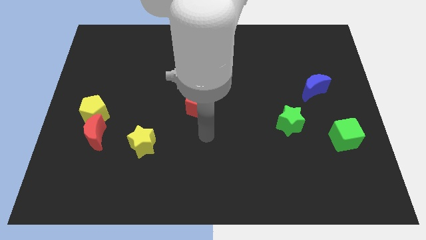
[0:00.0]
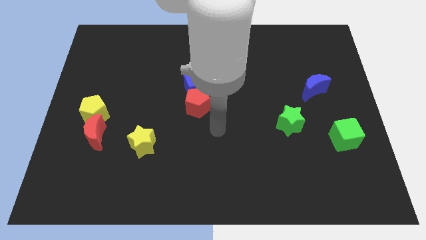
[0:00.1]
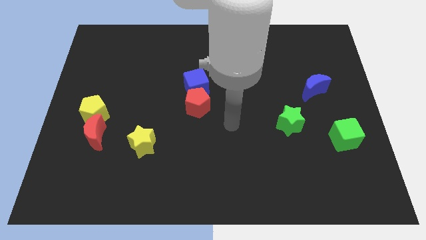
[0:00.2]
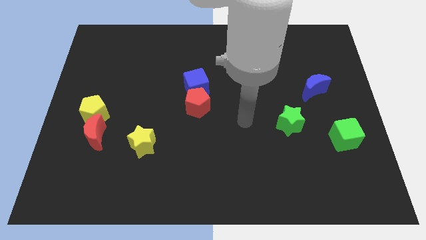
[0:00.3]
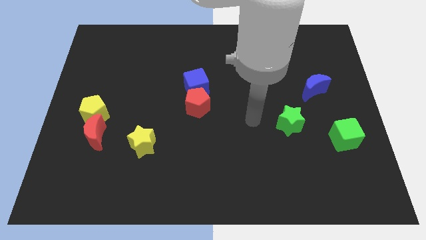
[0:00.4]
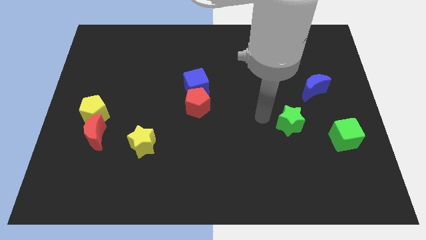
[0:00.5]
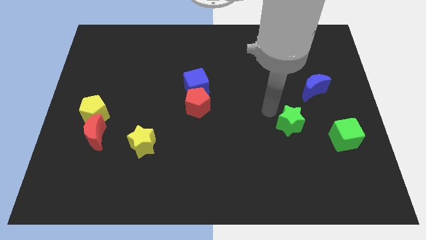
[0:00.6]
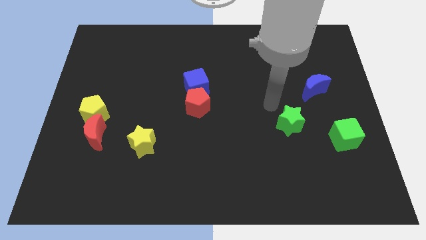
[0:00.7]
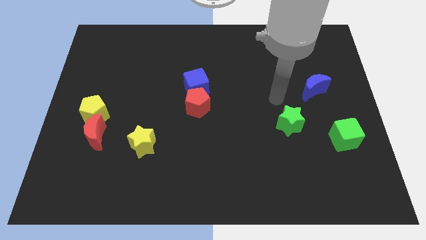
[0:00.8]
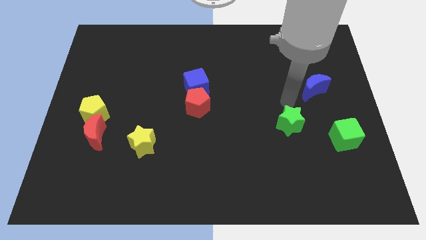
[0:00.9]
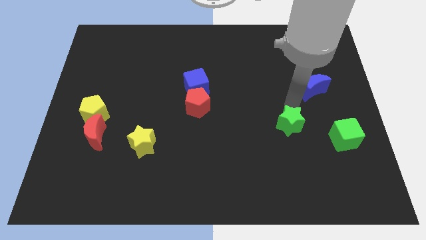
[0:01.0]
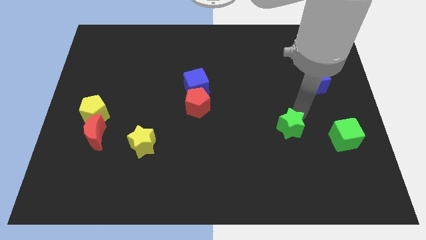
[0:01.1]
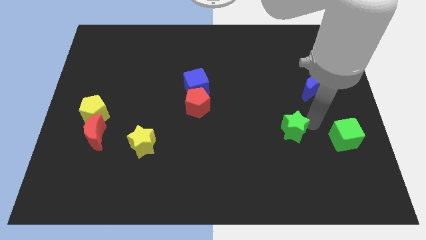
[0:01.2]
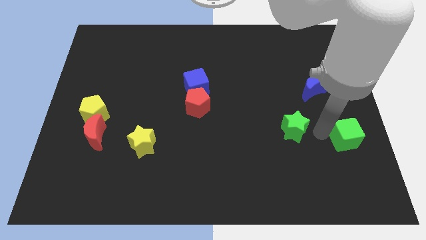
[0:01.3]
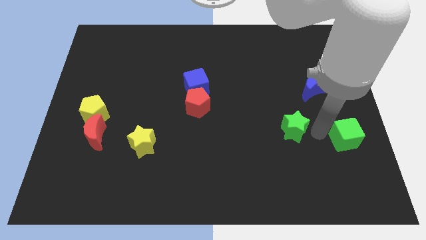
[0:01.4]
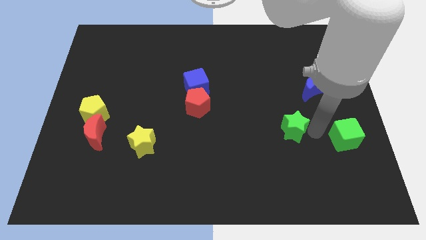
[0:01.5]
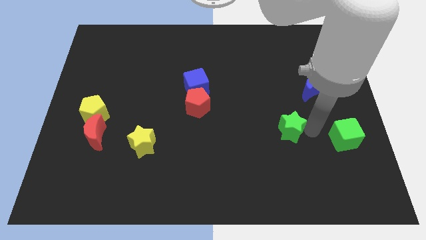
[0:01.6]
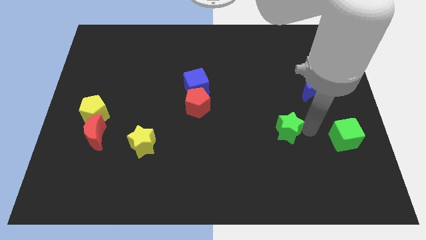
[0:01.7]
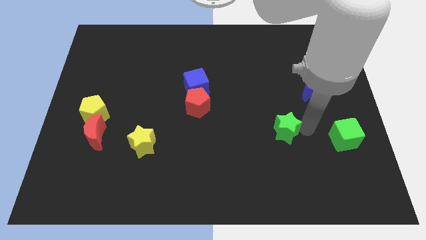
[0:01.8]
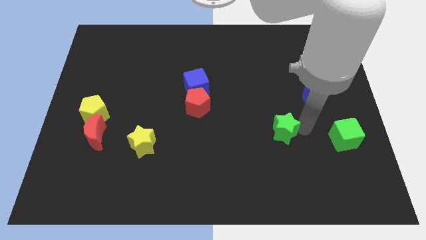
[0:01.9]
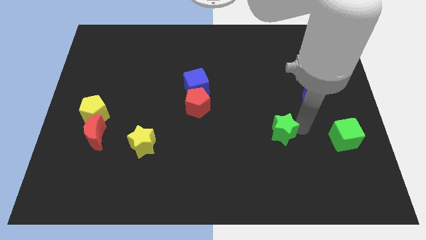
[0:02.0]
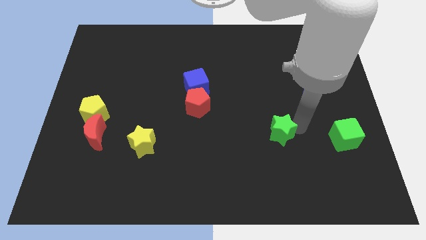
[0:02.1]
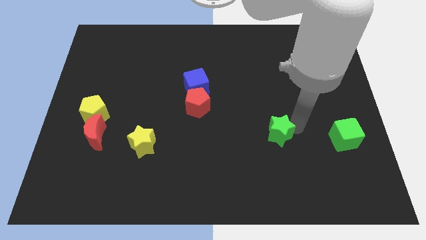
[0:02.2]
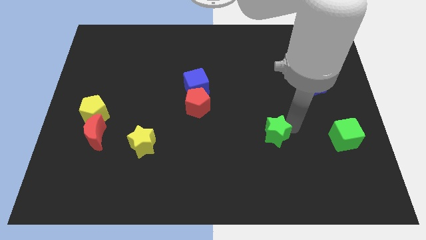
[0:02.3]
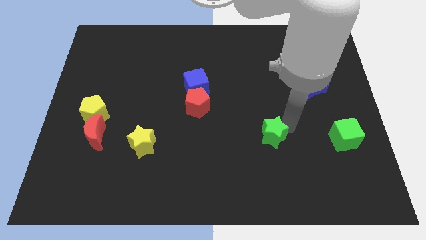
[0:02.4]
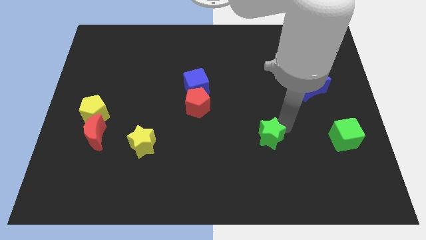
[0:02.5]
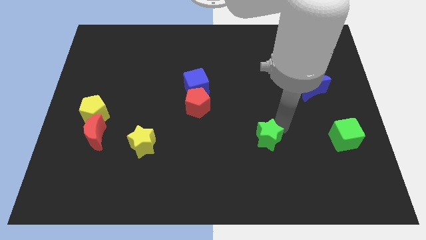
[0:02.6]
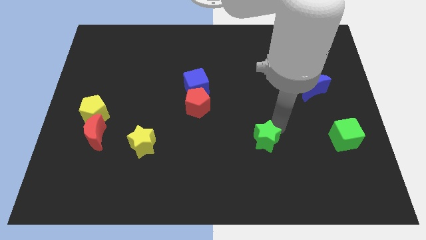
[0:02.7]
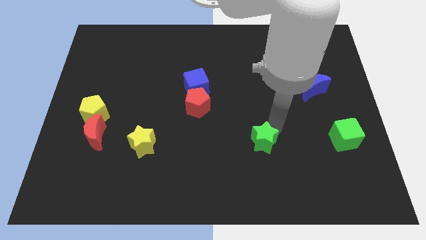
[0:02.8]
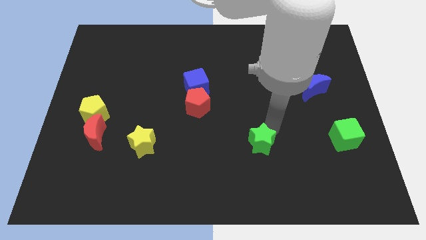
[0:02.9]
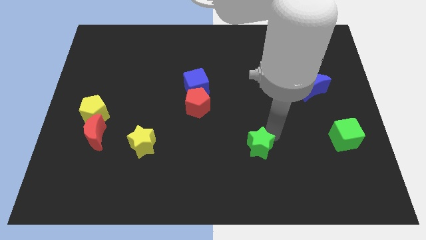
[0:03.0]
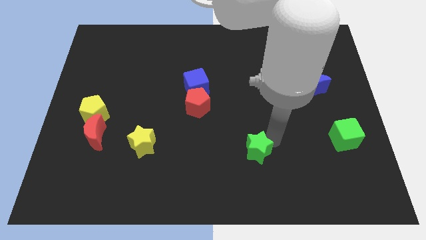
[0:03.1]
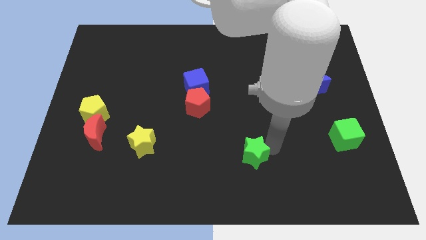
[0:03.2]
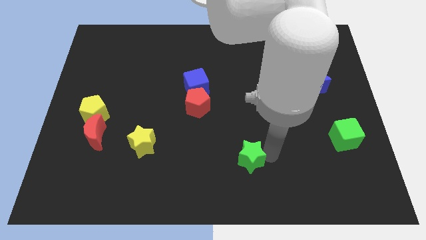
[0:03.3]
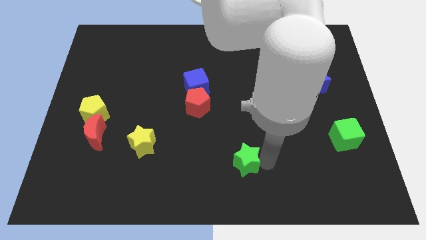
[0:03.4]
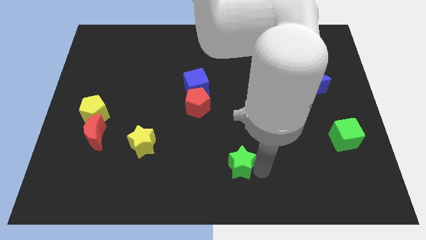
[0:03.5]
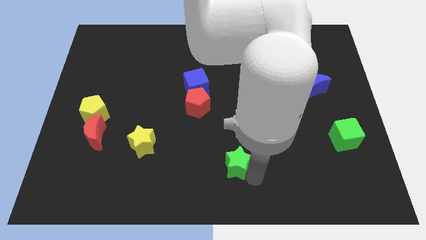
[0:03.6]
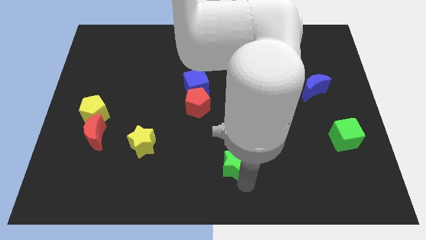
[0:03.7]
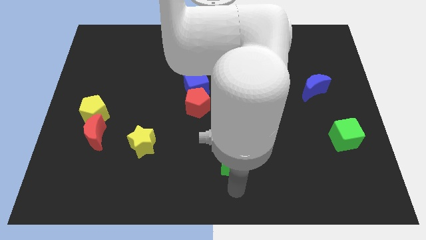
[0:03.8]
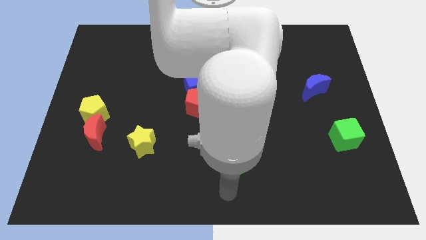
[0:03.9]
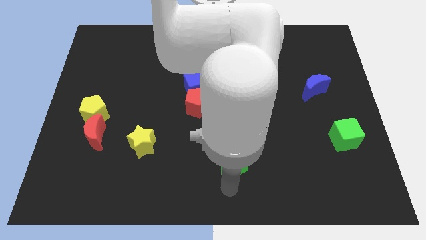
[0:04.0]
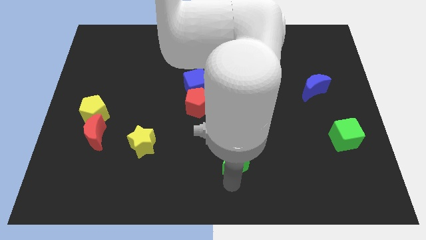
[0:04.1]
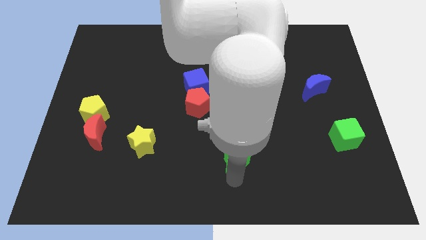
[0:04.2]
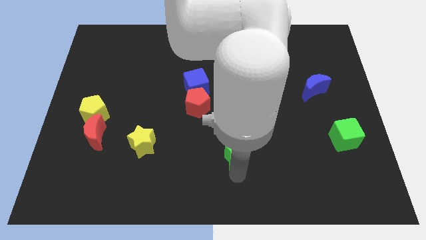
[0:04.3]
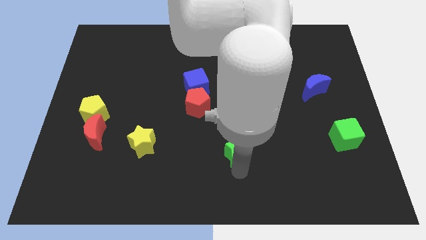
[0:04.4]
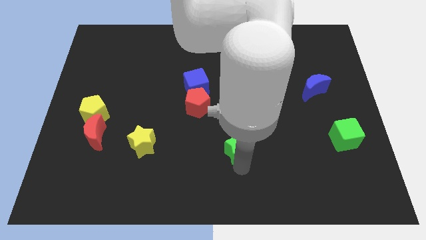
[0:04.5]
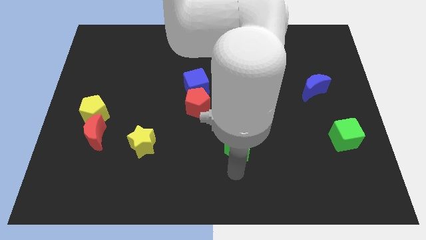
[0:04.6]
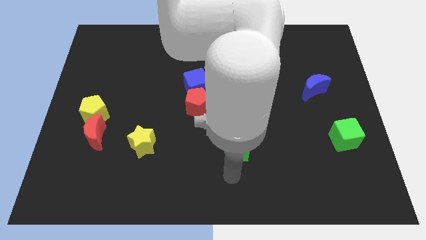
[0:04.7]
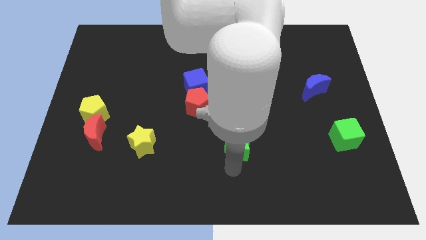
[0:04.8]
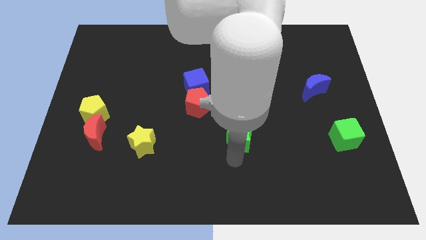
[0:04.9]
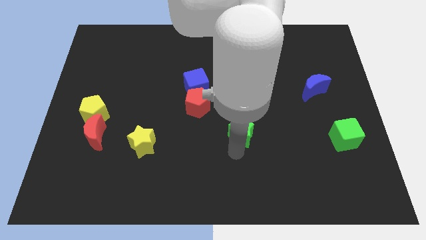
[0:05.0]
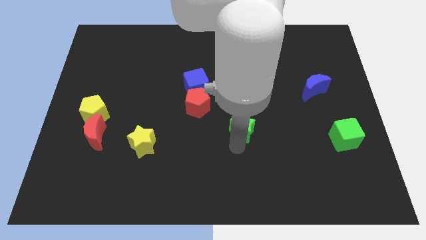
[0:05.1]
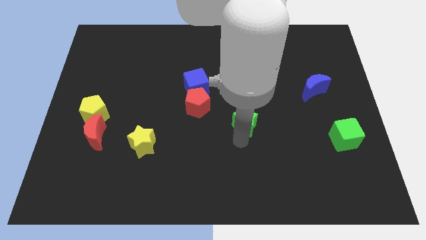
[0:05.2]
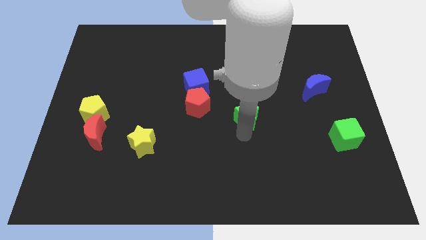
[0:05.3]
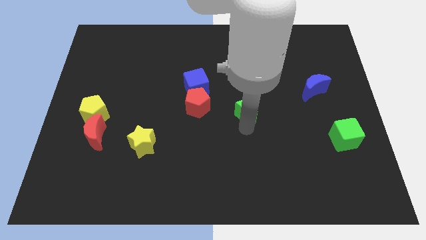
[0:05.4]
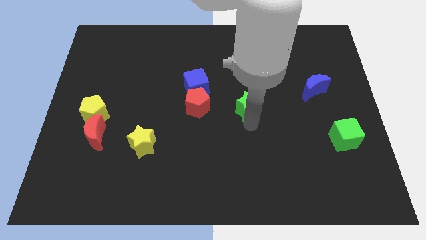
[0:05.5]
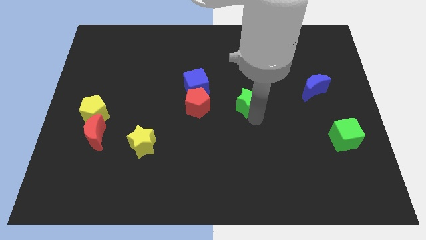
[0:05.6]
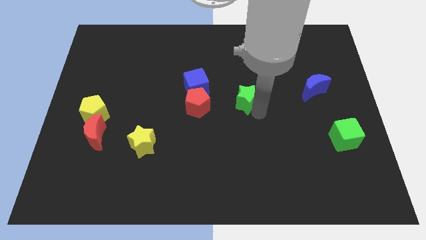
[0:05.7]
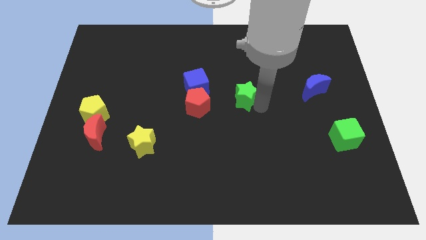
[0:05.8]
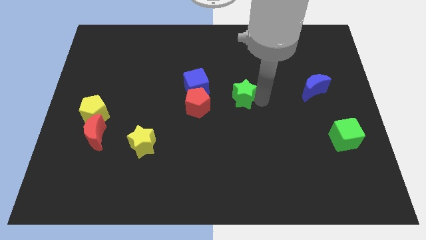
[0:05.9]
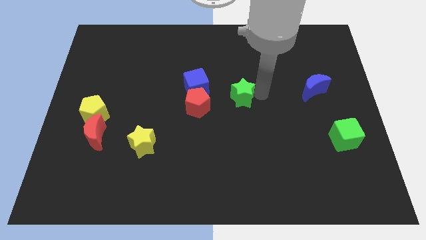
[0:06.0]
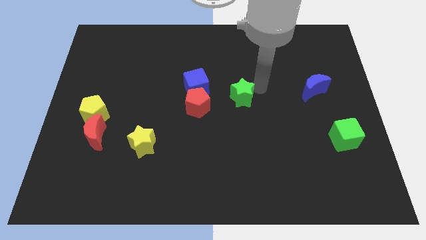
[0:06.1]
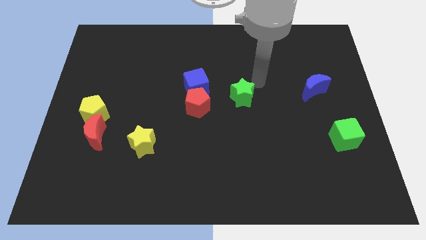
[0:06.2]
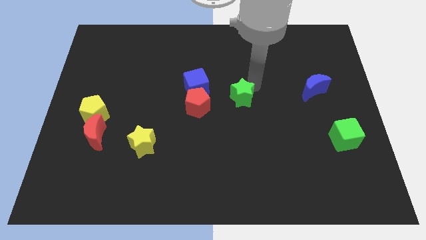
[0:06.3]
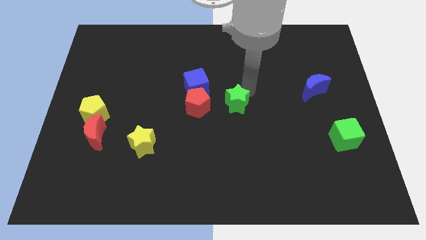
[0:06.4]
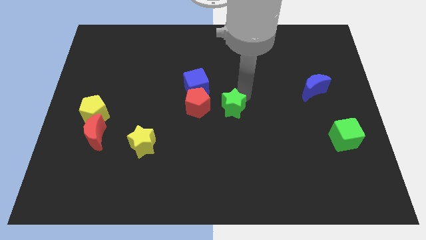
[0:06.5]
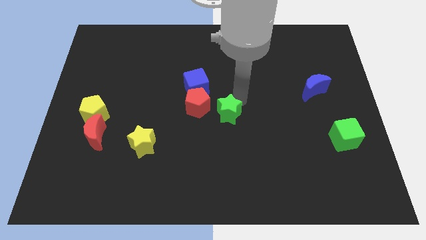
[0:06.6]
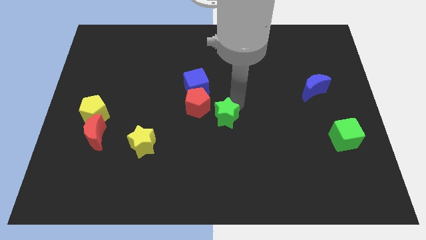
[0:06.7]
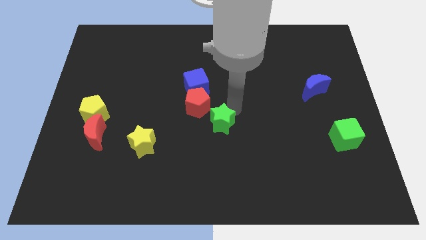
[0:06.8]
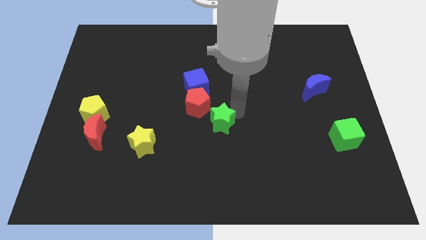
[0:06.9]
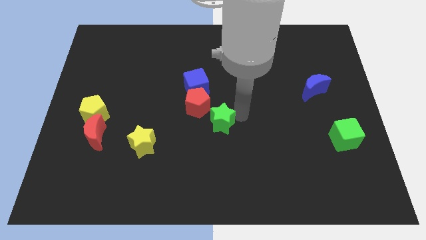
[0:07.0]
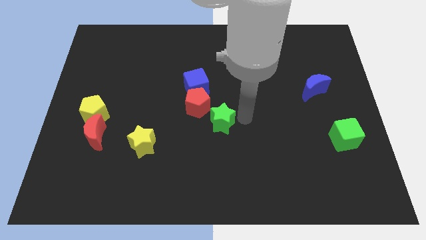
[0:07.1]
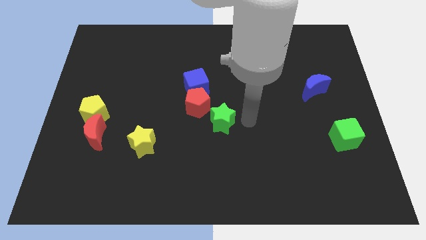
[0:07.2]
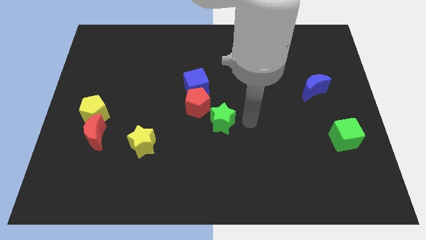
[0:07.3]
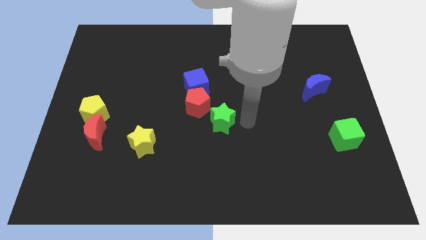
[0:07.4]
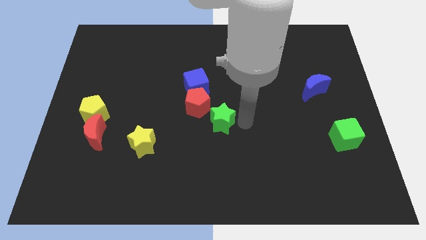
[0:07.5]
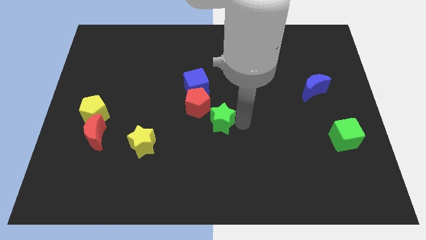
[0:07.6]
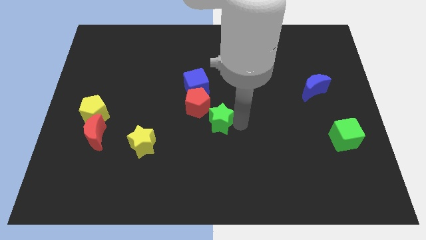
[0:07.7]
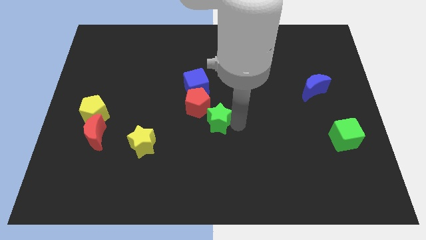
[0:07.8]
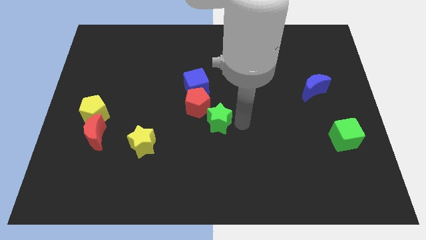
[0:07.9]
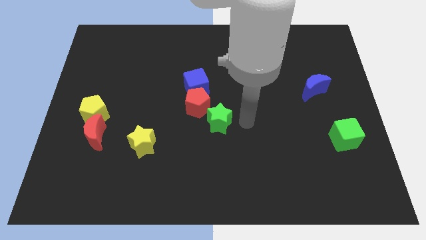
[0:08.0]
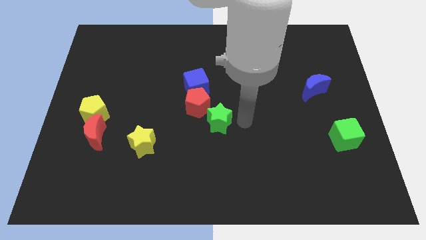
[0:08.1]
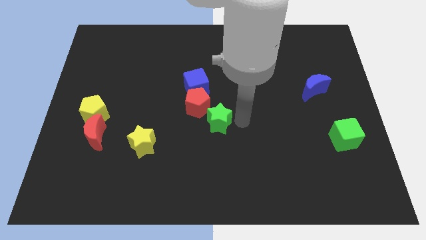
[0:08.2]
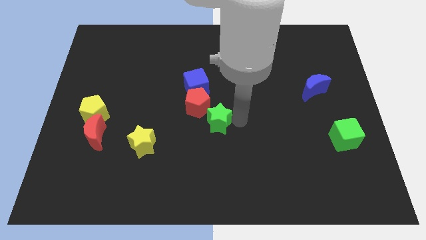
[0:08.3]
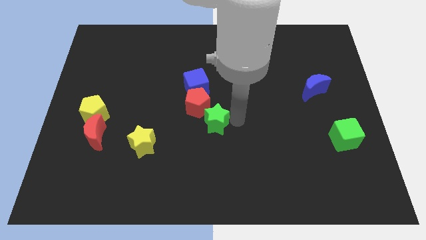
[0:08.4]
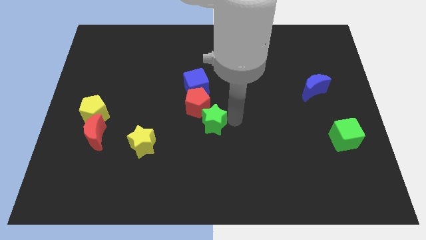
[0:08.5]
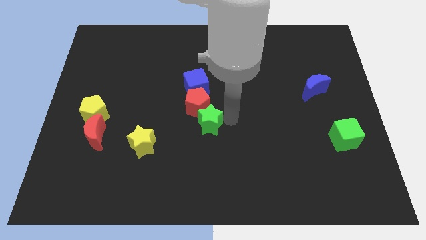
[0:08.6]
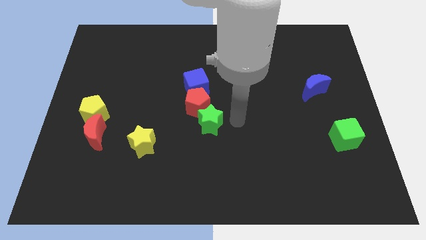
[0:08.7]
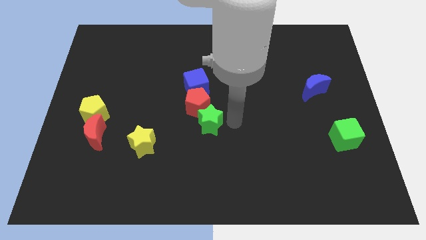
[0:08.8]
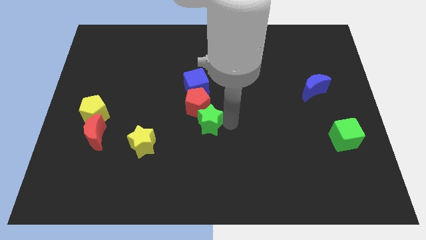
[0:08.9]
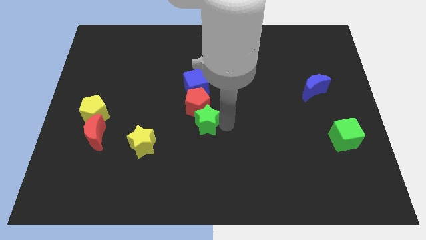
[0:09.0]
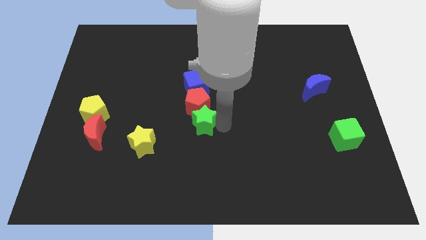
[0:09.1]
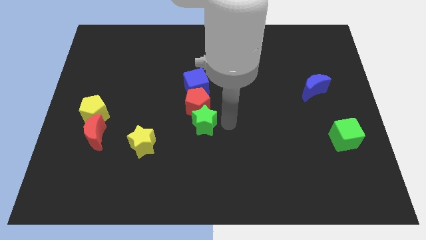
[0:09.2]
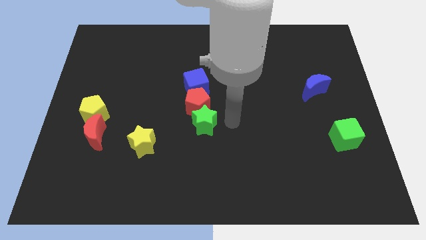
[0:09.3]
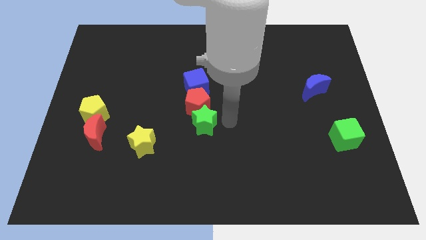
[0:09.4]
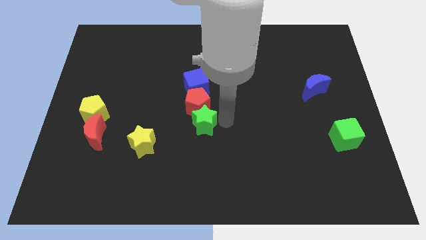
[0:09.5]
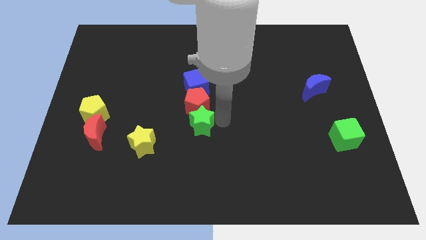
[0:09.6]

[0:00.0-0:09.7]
push the green star to the left
